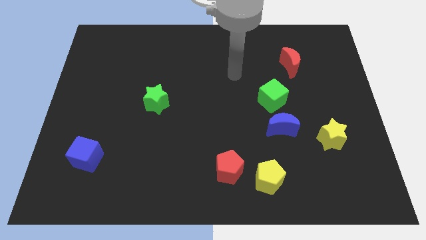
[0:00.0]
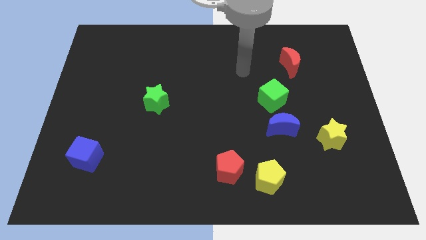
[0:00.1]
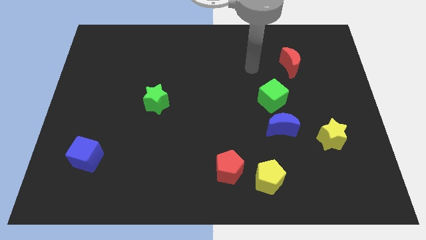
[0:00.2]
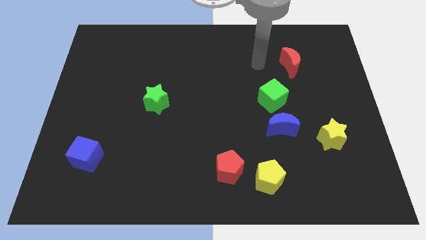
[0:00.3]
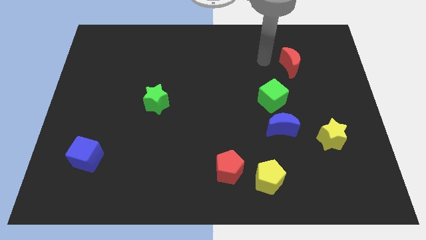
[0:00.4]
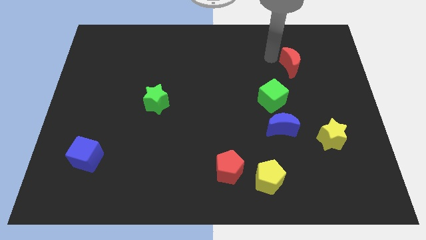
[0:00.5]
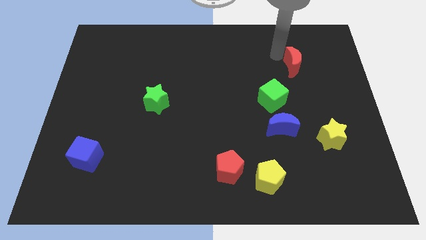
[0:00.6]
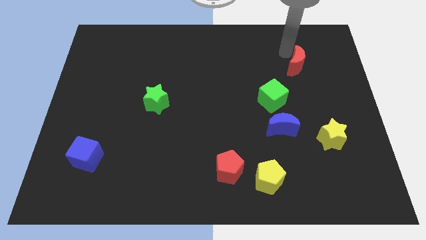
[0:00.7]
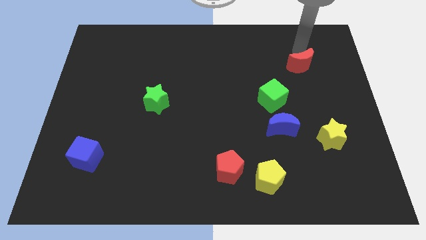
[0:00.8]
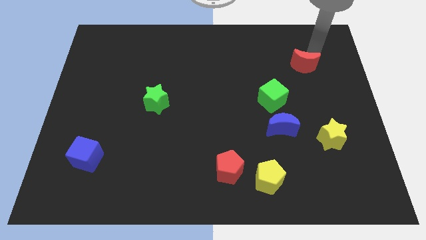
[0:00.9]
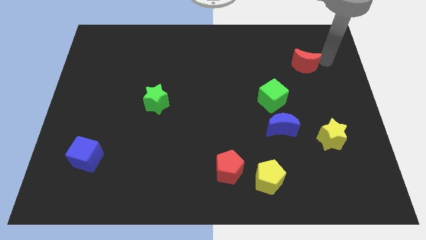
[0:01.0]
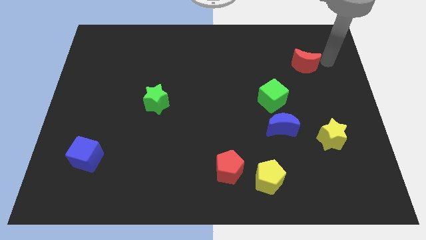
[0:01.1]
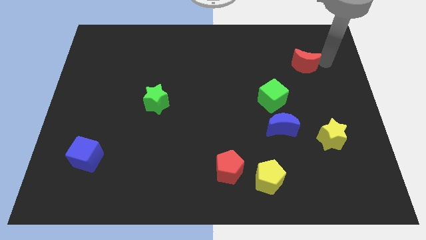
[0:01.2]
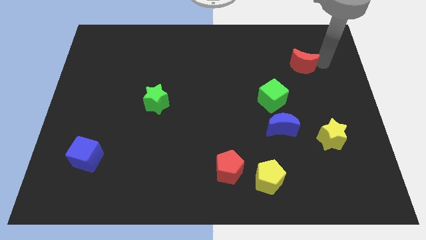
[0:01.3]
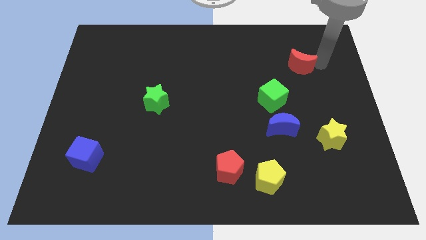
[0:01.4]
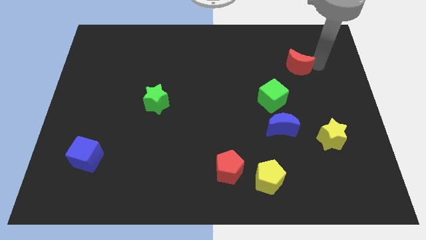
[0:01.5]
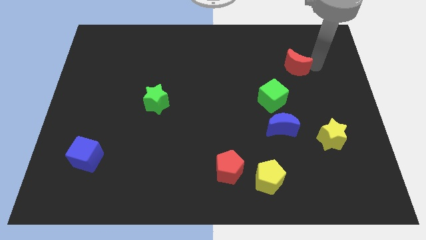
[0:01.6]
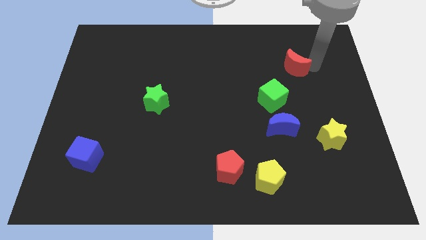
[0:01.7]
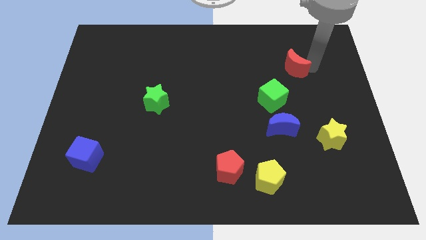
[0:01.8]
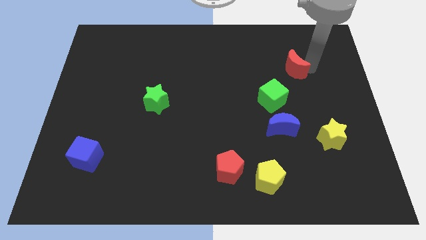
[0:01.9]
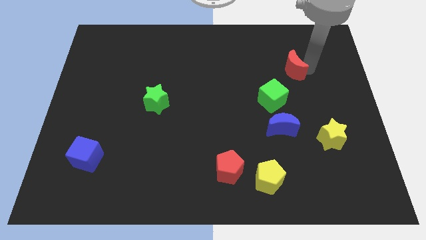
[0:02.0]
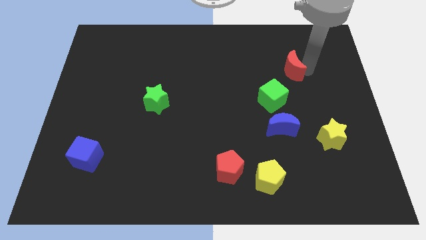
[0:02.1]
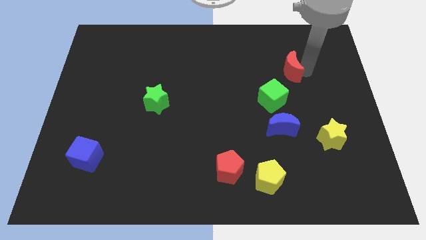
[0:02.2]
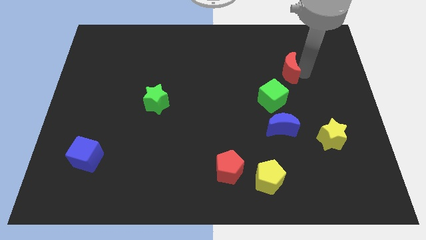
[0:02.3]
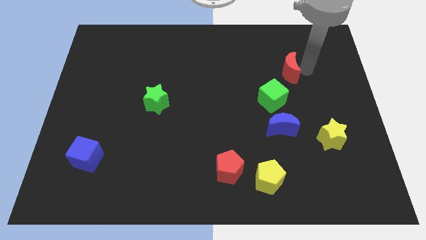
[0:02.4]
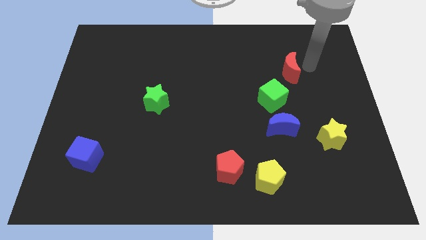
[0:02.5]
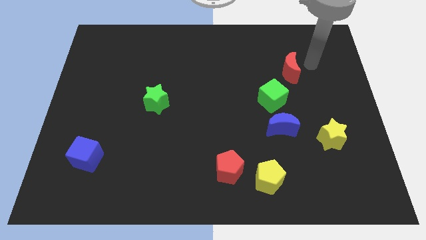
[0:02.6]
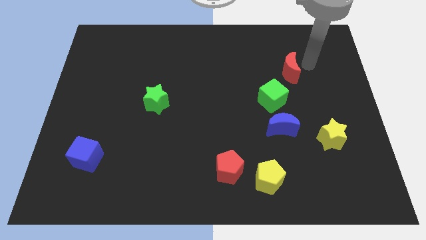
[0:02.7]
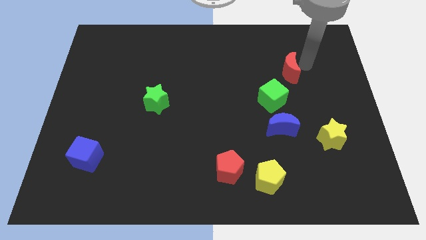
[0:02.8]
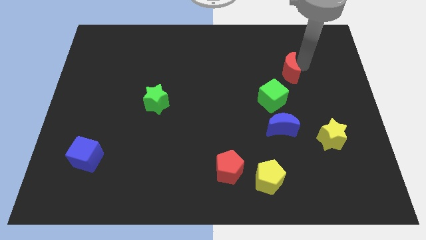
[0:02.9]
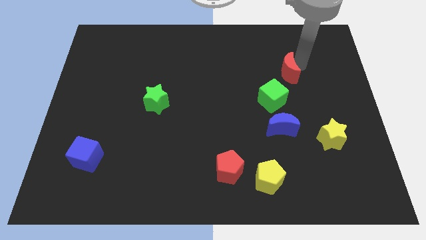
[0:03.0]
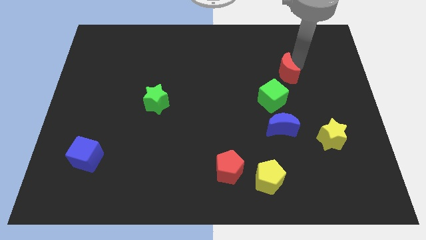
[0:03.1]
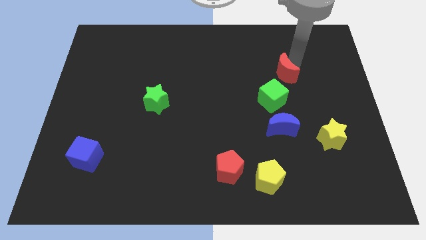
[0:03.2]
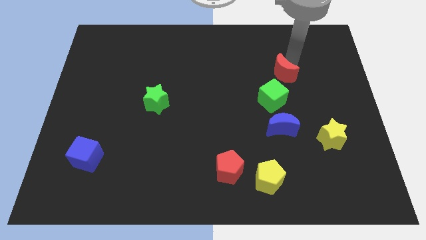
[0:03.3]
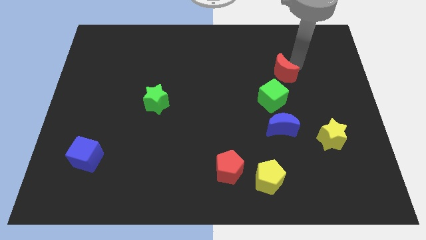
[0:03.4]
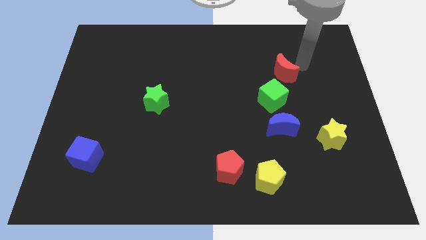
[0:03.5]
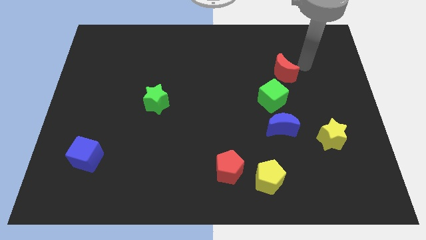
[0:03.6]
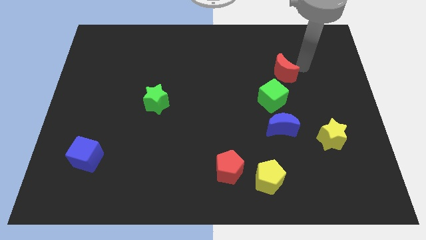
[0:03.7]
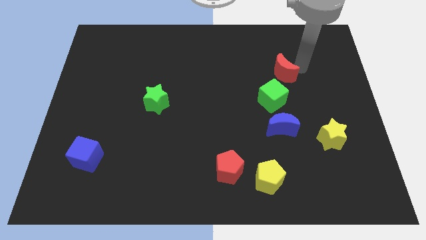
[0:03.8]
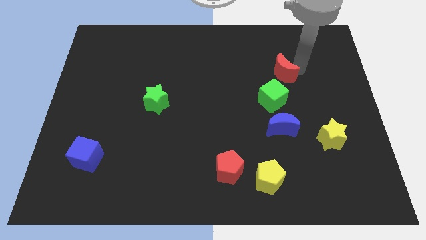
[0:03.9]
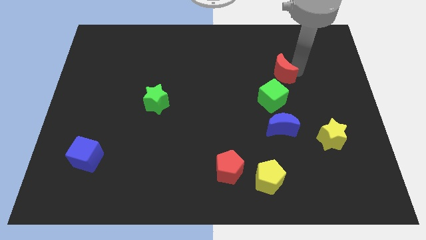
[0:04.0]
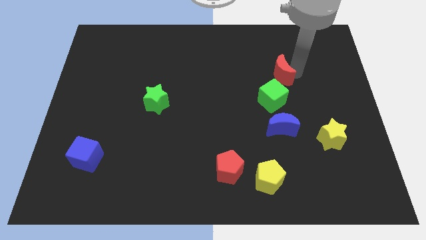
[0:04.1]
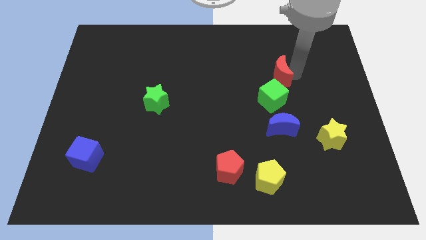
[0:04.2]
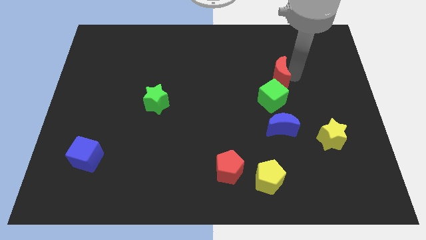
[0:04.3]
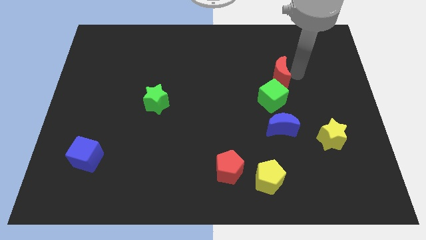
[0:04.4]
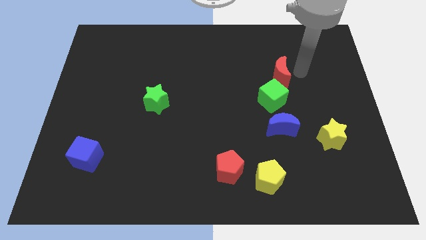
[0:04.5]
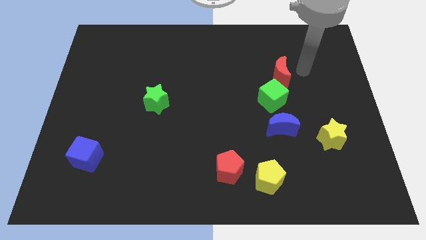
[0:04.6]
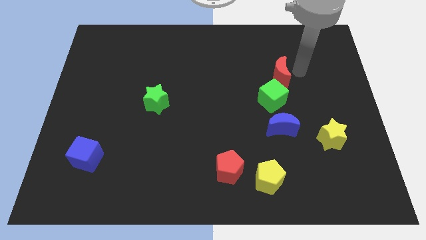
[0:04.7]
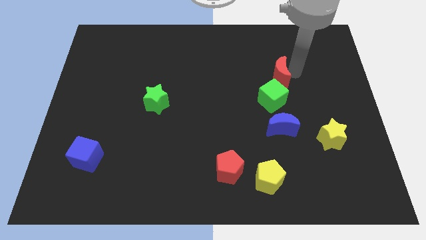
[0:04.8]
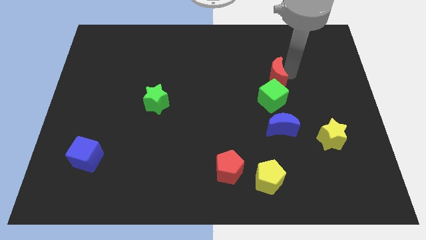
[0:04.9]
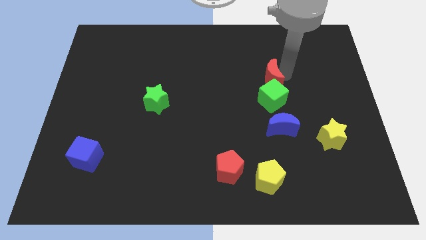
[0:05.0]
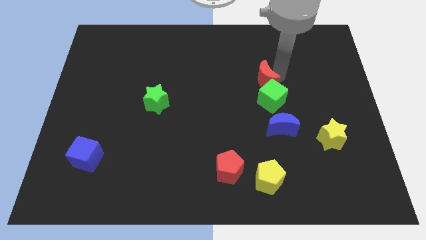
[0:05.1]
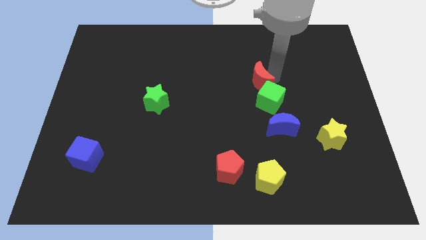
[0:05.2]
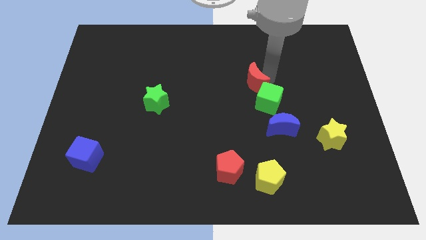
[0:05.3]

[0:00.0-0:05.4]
slide the red moon to the middle

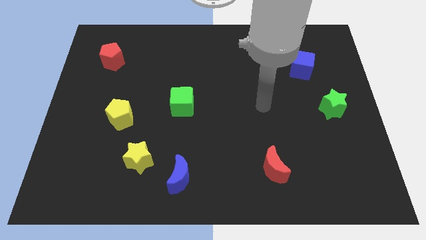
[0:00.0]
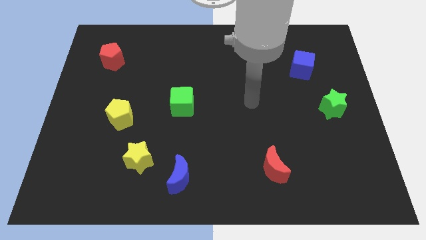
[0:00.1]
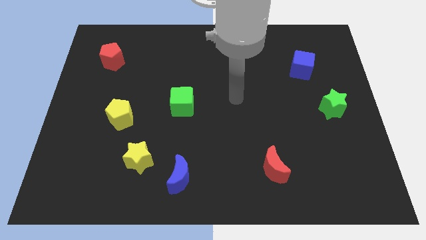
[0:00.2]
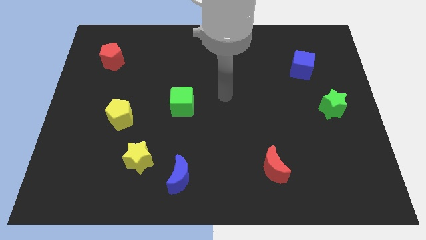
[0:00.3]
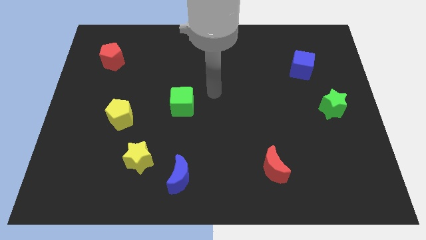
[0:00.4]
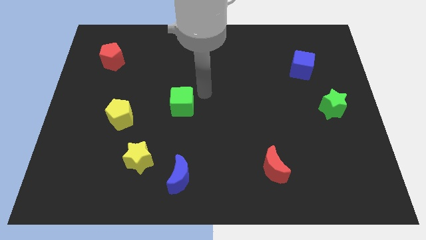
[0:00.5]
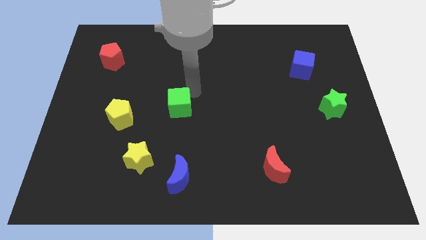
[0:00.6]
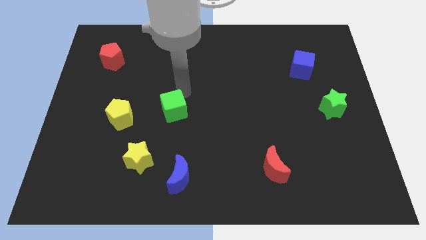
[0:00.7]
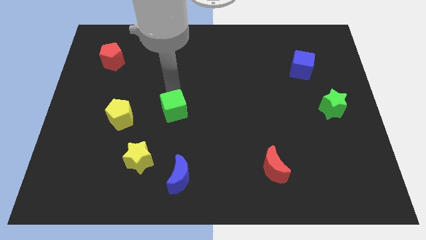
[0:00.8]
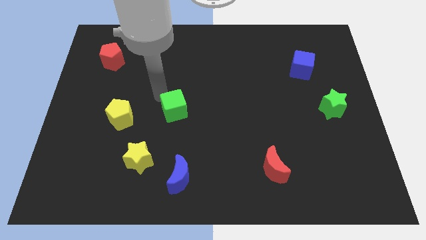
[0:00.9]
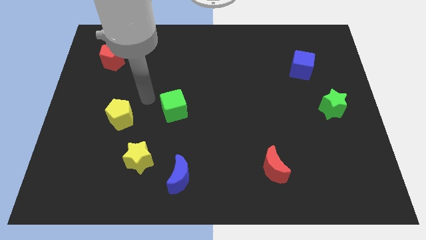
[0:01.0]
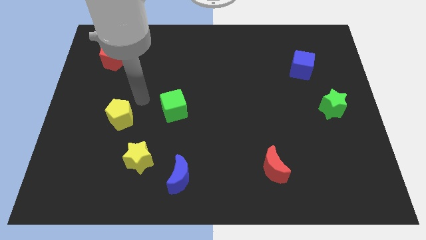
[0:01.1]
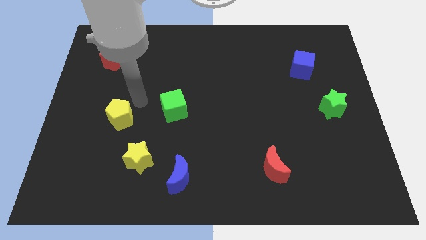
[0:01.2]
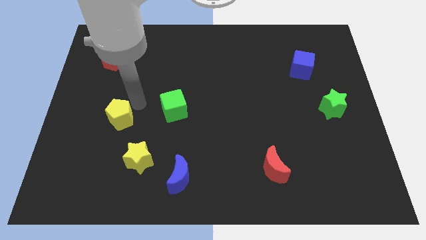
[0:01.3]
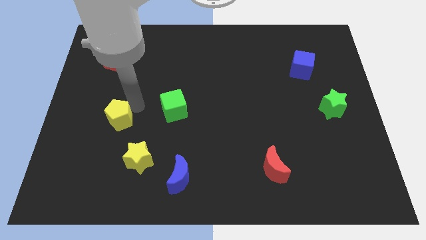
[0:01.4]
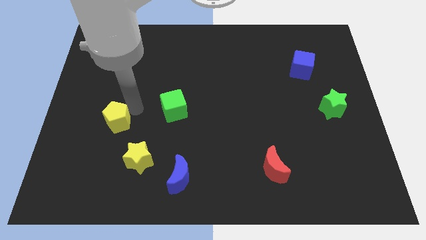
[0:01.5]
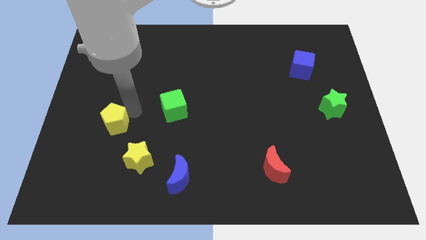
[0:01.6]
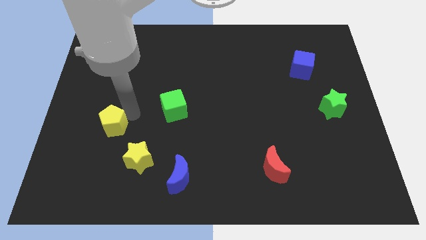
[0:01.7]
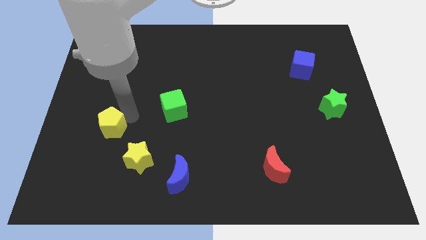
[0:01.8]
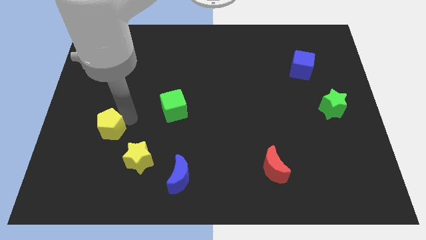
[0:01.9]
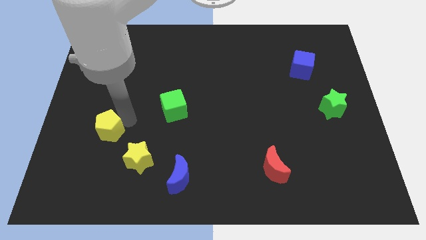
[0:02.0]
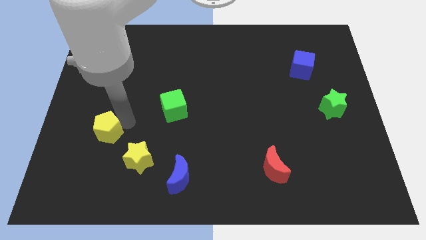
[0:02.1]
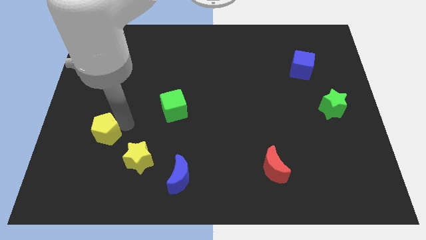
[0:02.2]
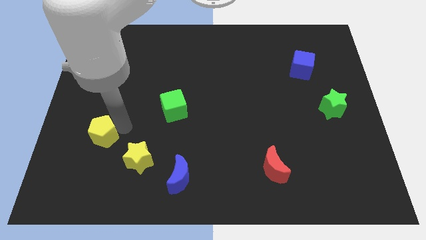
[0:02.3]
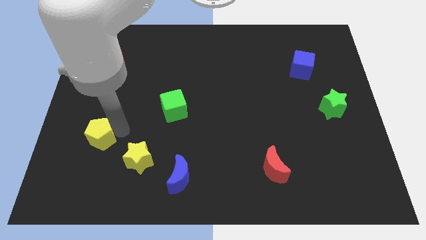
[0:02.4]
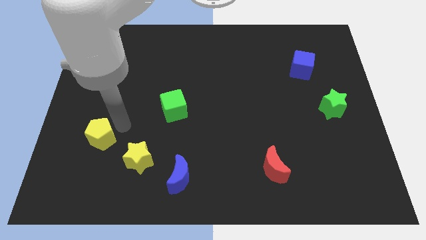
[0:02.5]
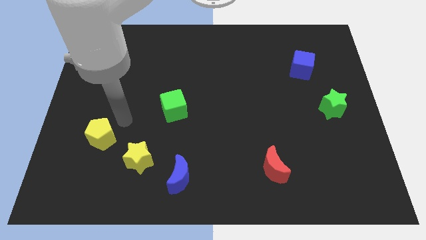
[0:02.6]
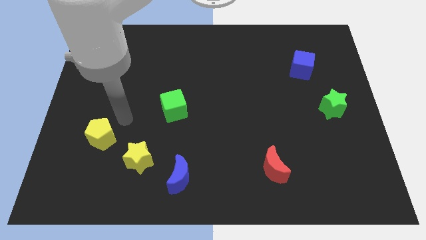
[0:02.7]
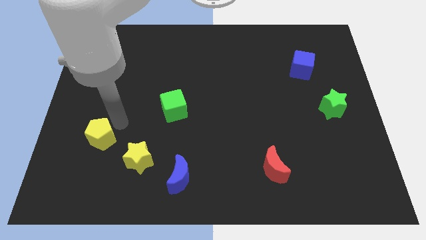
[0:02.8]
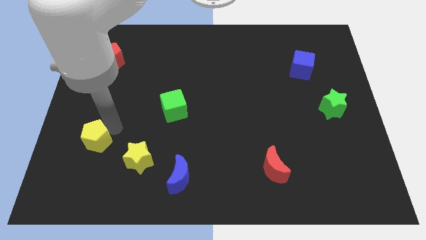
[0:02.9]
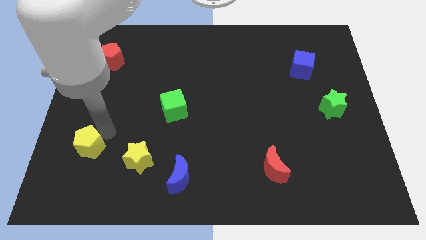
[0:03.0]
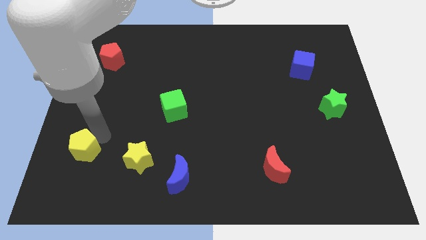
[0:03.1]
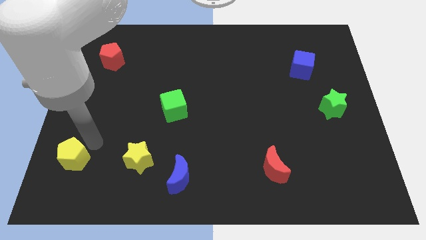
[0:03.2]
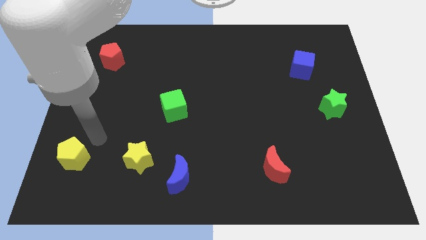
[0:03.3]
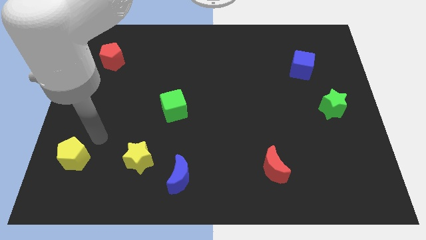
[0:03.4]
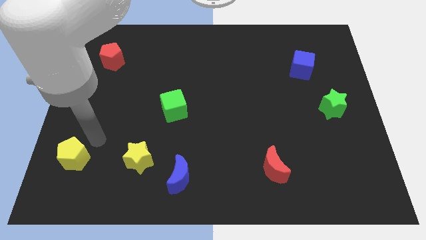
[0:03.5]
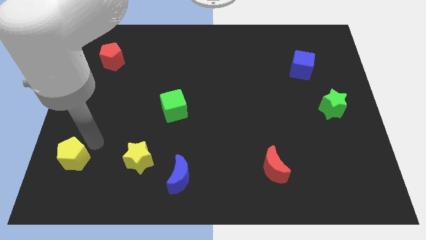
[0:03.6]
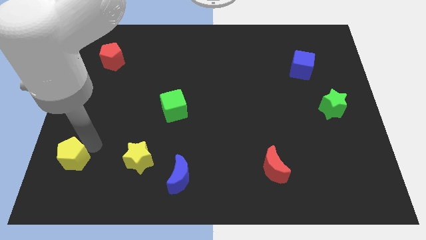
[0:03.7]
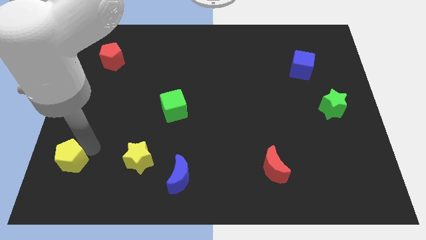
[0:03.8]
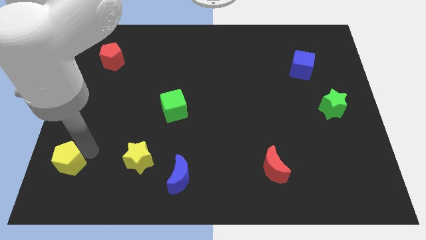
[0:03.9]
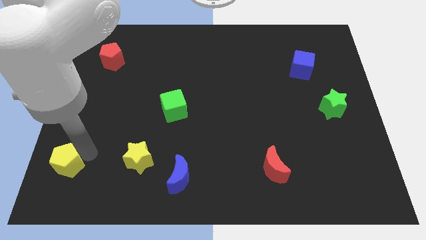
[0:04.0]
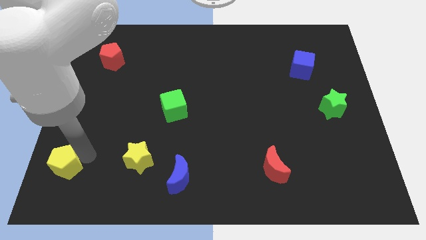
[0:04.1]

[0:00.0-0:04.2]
put the yellow pentagon to the bottom left corner
